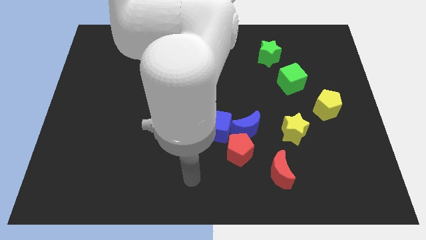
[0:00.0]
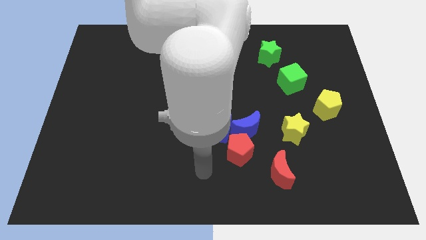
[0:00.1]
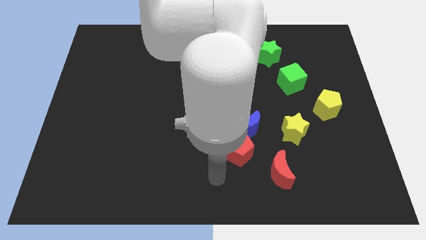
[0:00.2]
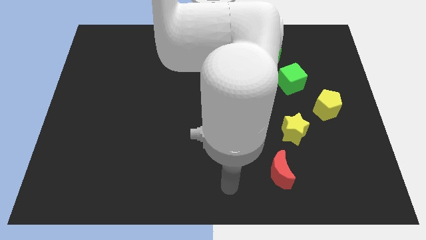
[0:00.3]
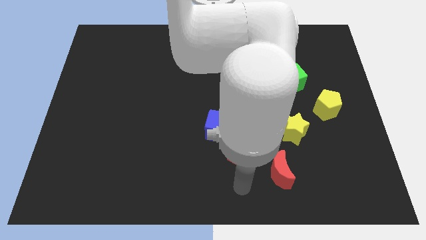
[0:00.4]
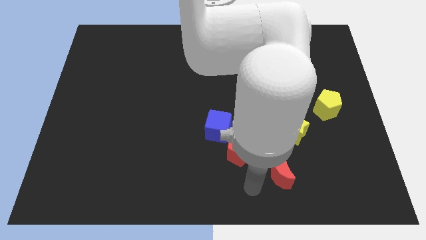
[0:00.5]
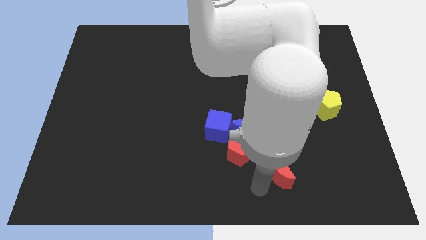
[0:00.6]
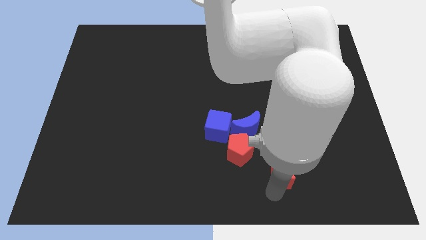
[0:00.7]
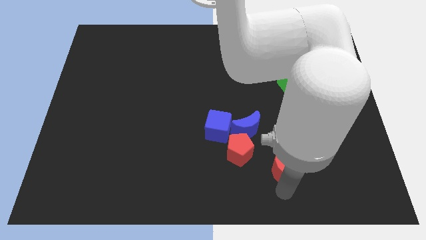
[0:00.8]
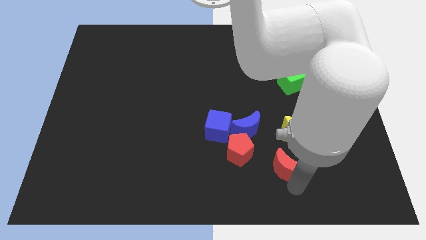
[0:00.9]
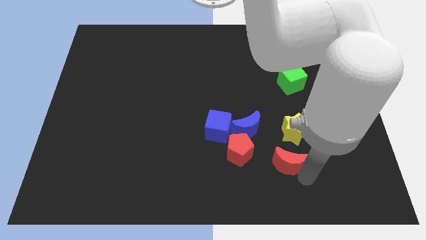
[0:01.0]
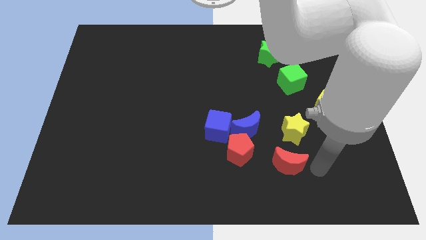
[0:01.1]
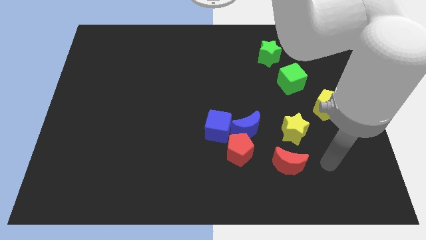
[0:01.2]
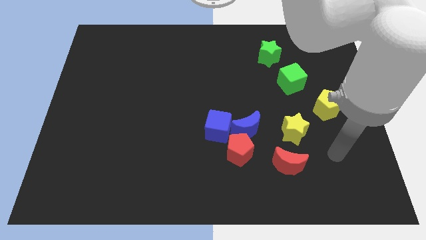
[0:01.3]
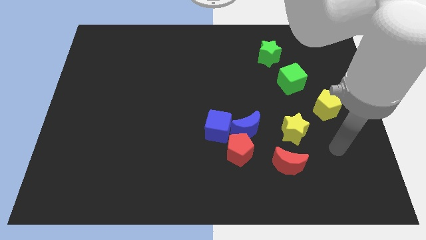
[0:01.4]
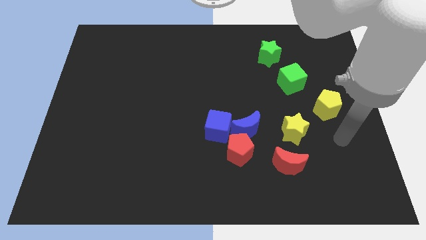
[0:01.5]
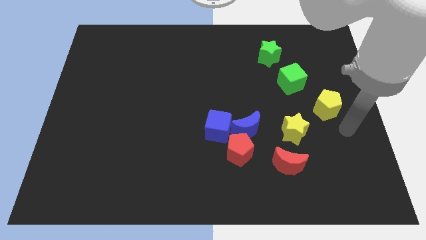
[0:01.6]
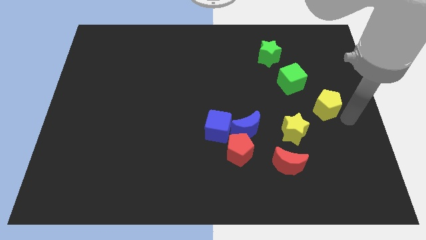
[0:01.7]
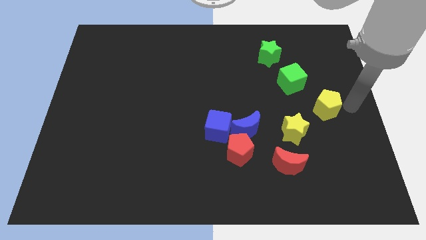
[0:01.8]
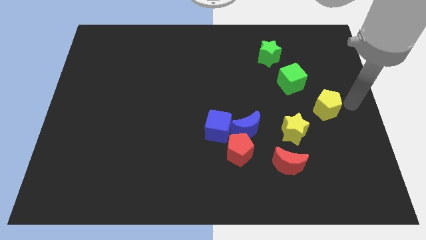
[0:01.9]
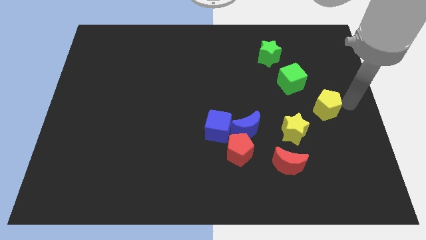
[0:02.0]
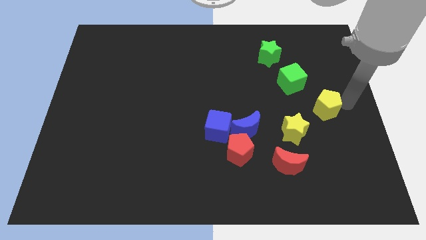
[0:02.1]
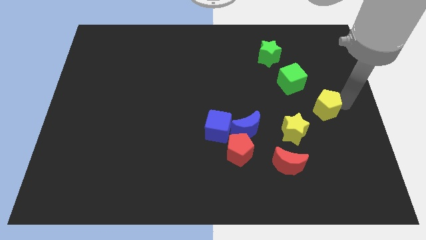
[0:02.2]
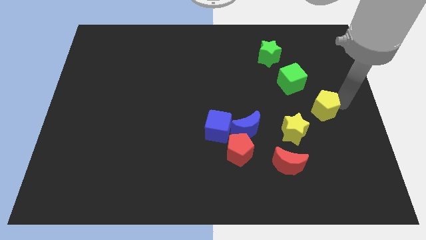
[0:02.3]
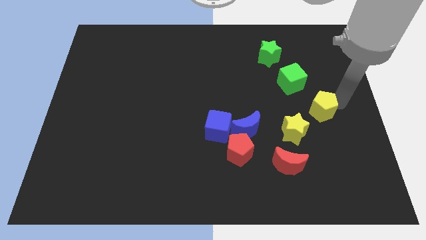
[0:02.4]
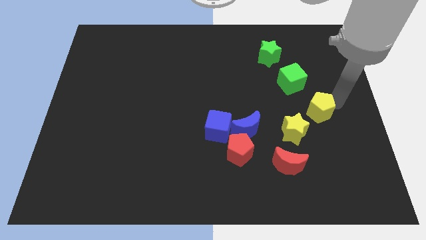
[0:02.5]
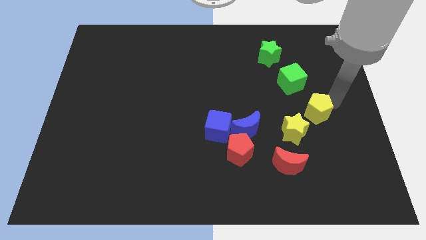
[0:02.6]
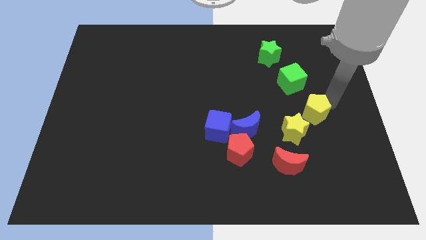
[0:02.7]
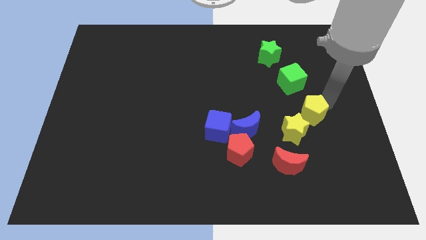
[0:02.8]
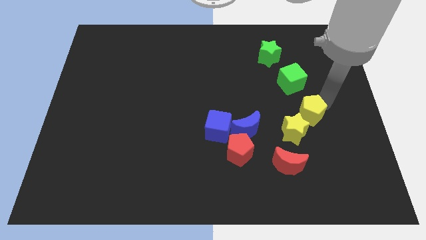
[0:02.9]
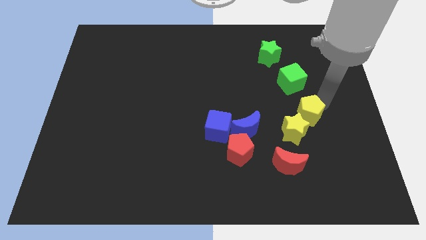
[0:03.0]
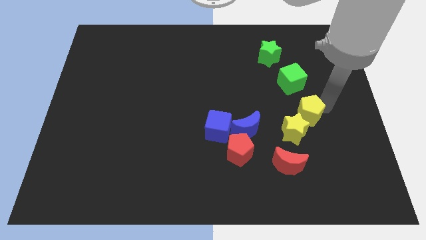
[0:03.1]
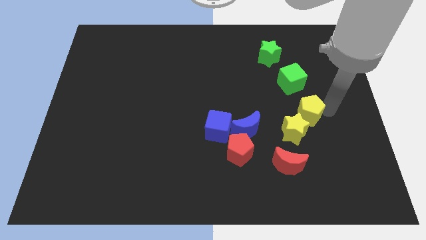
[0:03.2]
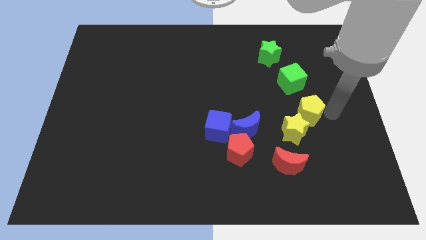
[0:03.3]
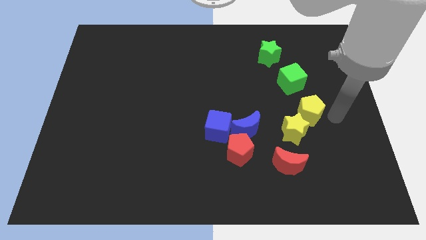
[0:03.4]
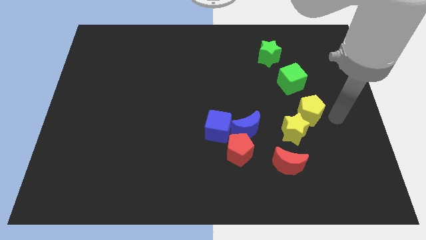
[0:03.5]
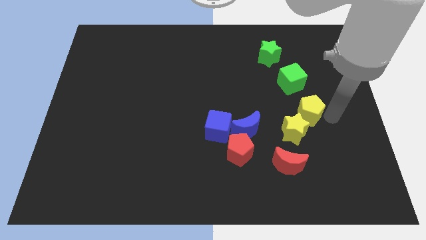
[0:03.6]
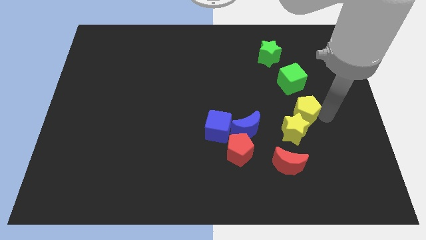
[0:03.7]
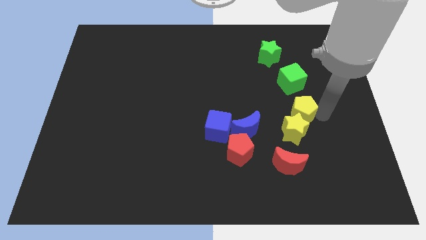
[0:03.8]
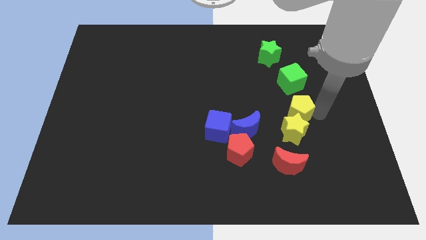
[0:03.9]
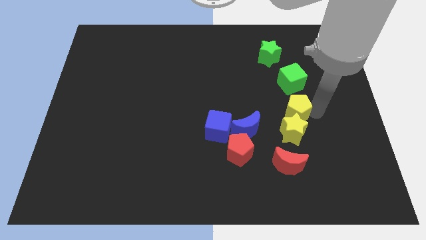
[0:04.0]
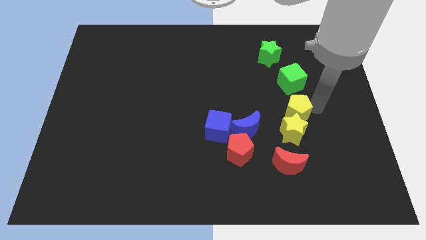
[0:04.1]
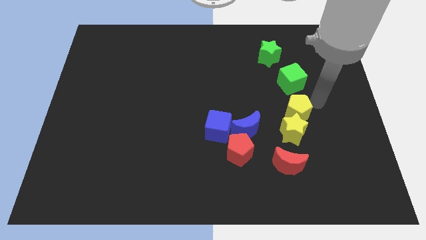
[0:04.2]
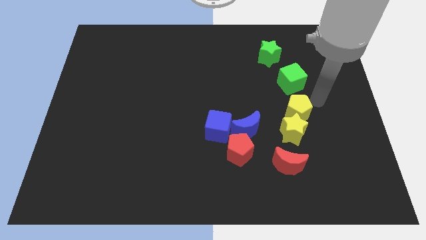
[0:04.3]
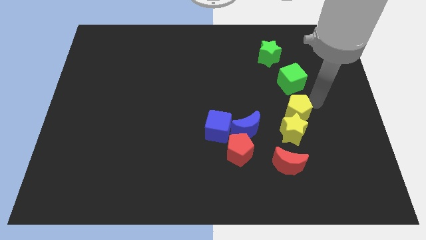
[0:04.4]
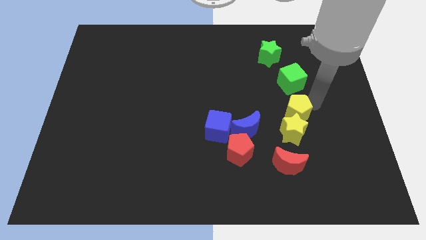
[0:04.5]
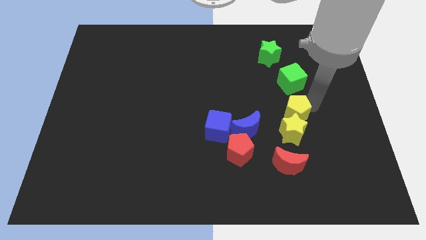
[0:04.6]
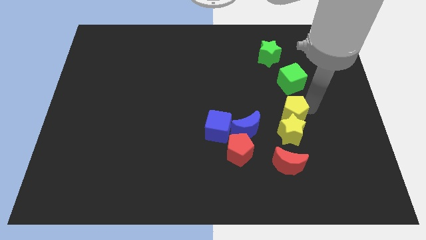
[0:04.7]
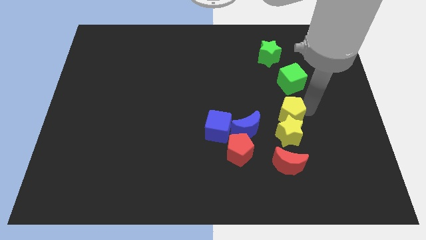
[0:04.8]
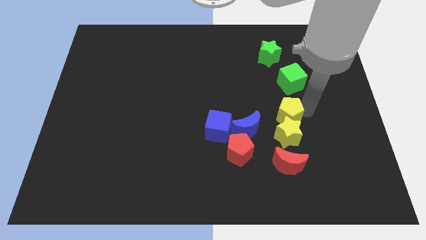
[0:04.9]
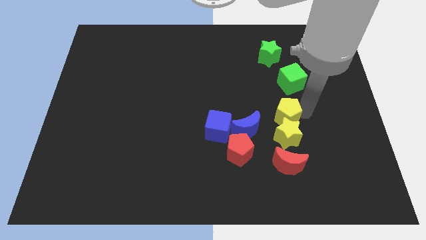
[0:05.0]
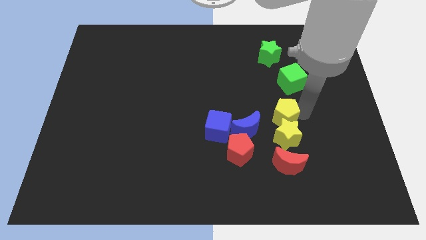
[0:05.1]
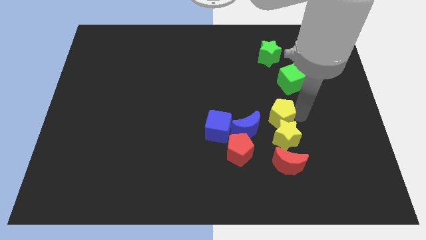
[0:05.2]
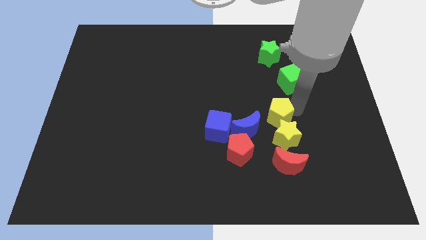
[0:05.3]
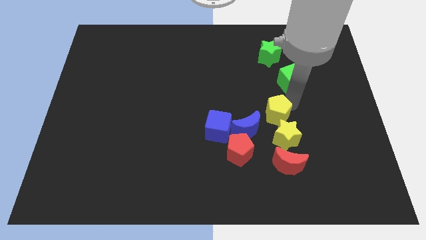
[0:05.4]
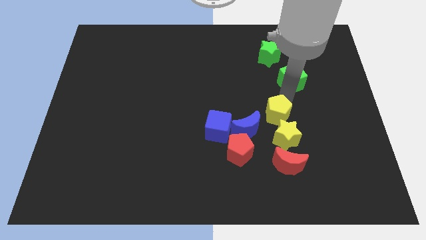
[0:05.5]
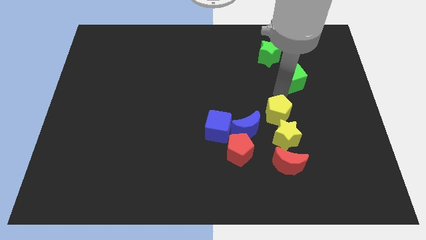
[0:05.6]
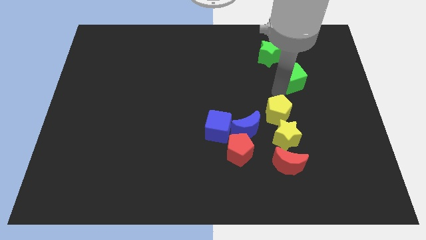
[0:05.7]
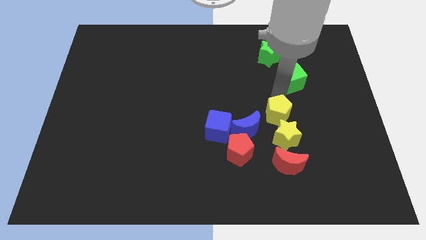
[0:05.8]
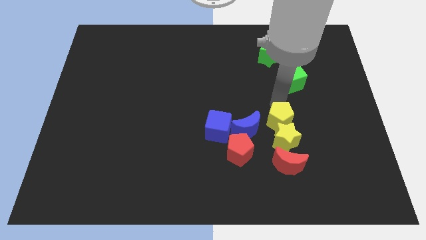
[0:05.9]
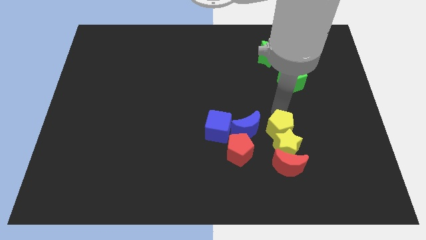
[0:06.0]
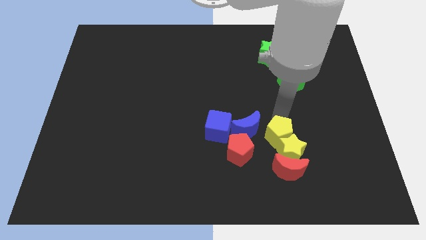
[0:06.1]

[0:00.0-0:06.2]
slide the yellow pentagon diagonally down and to the right of the blue moon

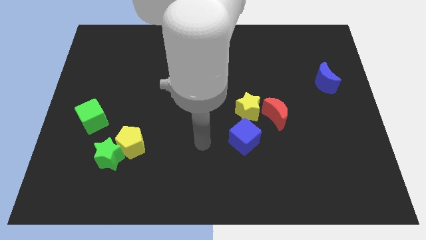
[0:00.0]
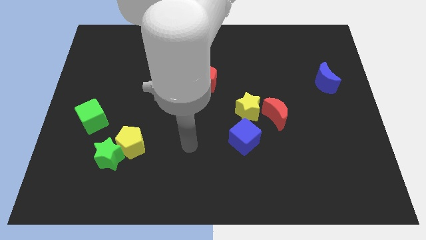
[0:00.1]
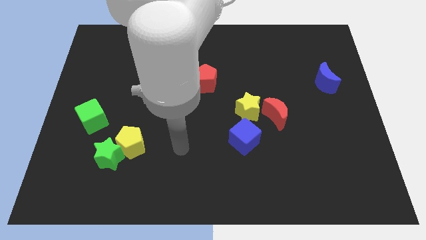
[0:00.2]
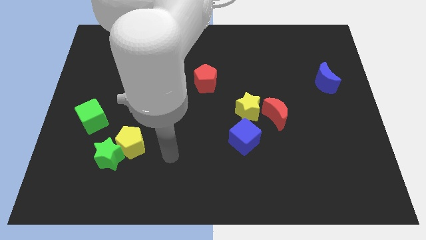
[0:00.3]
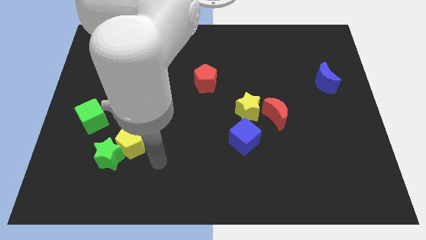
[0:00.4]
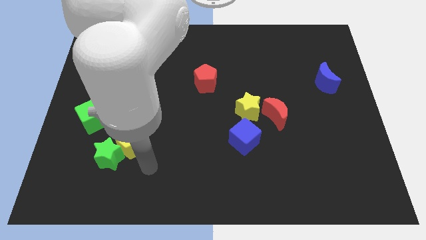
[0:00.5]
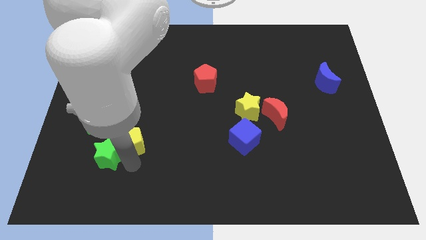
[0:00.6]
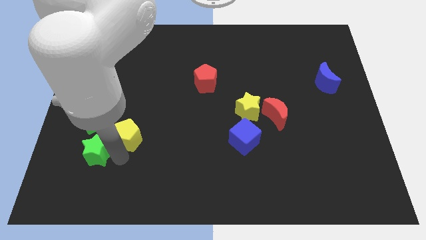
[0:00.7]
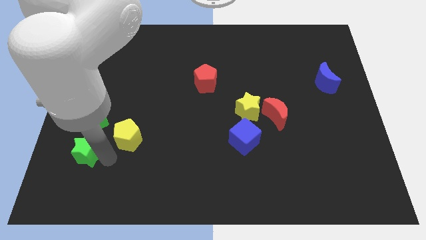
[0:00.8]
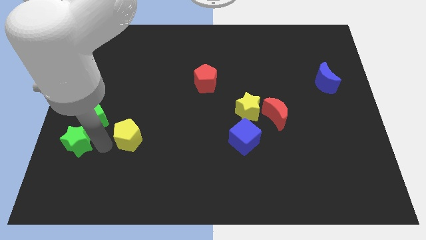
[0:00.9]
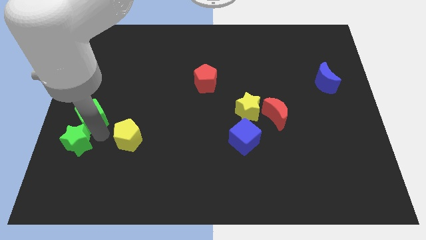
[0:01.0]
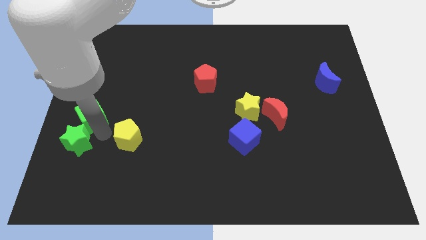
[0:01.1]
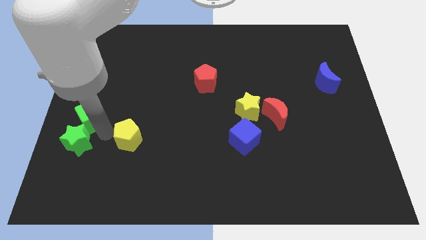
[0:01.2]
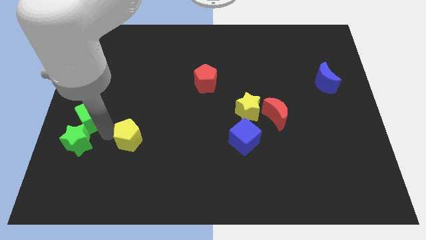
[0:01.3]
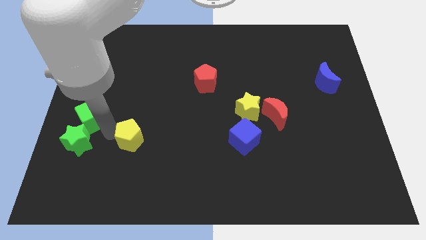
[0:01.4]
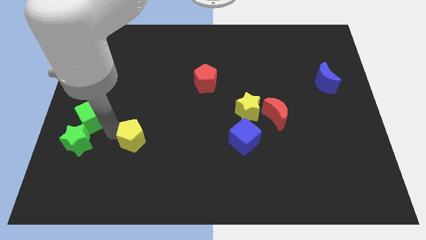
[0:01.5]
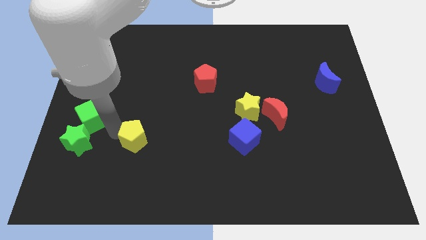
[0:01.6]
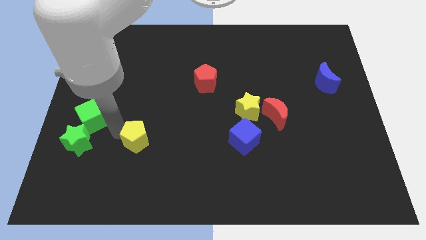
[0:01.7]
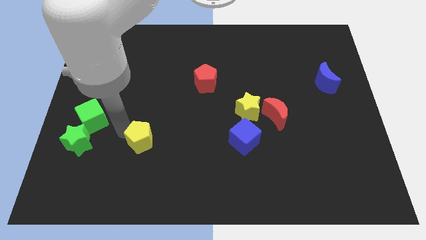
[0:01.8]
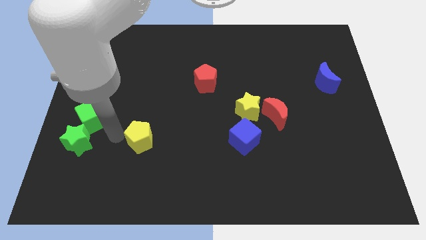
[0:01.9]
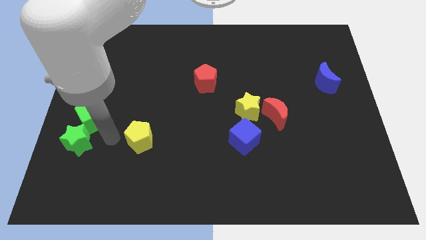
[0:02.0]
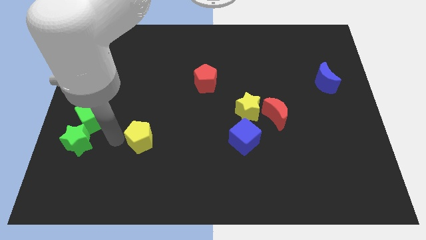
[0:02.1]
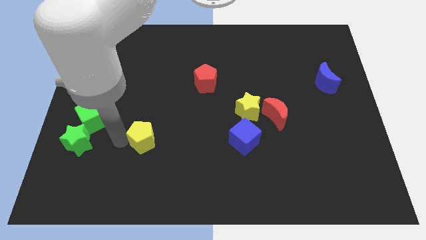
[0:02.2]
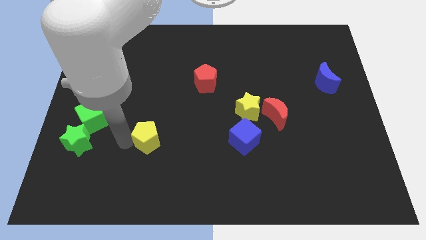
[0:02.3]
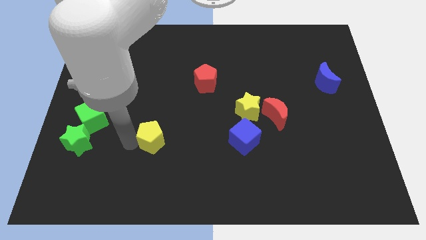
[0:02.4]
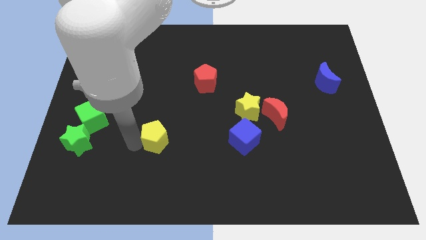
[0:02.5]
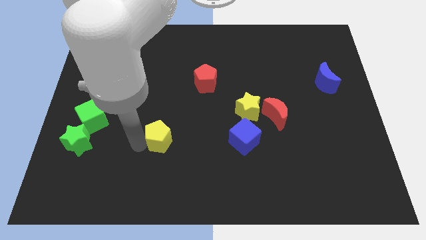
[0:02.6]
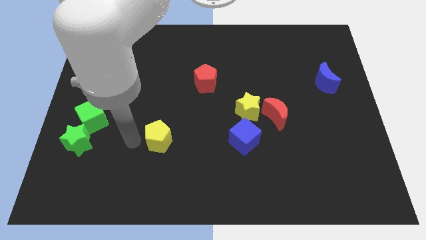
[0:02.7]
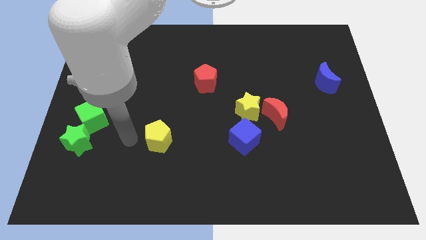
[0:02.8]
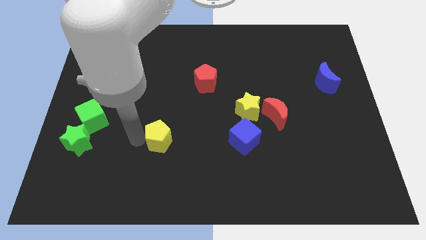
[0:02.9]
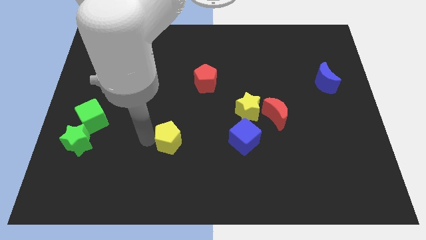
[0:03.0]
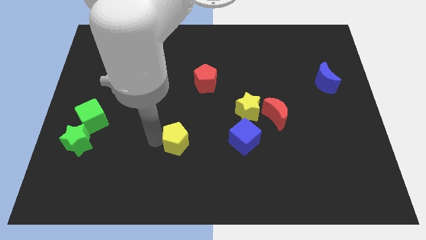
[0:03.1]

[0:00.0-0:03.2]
push the yellow pentagon just left of the blue cube
